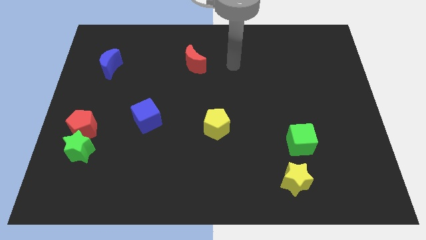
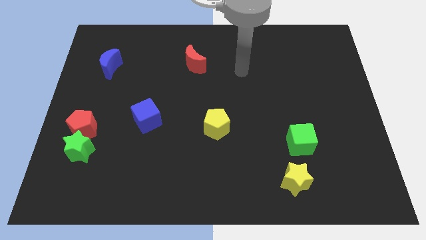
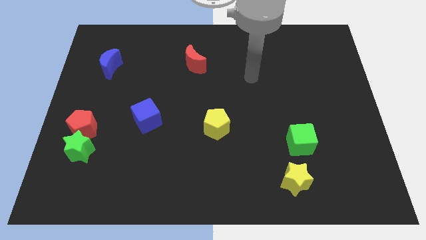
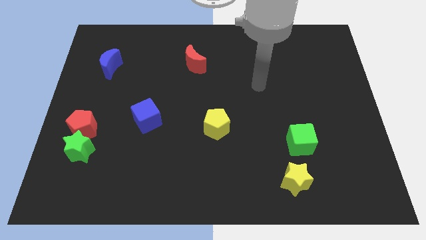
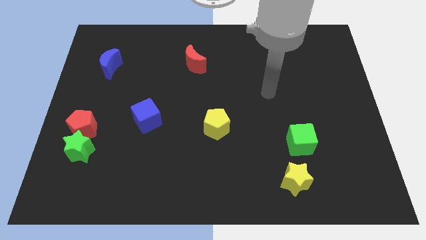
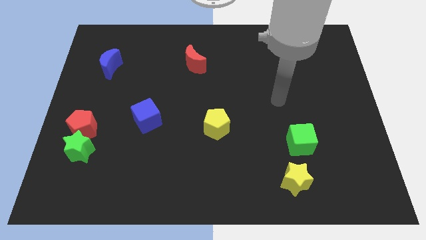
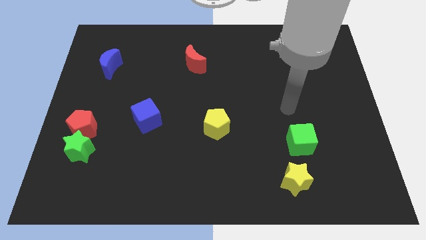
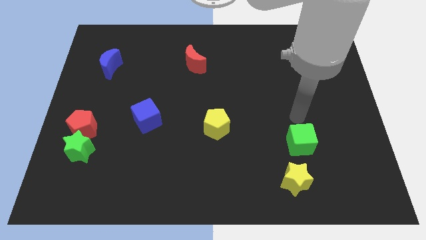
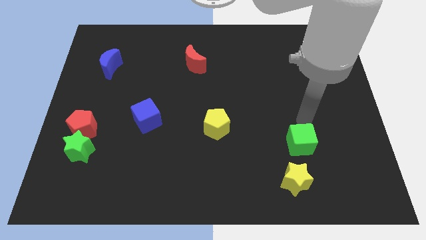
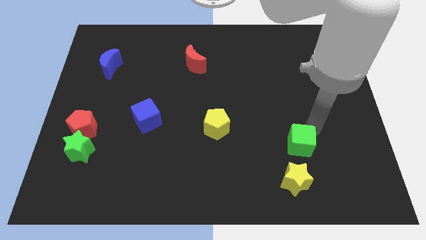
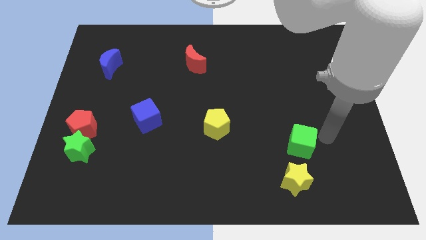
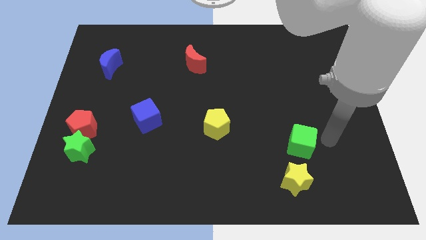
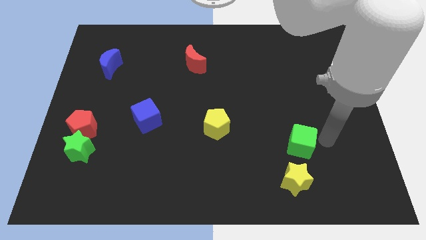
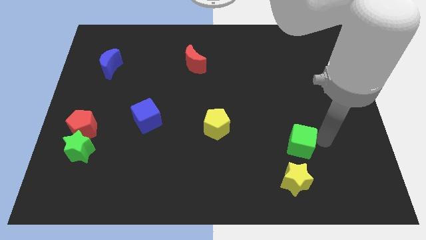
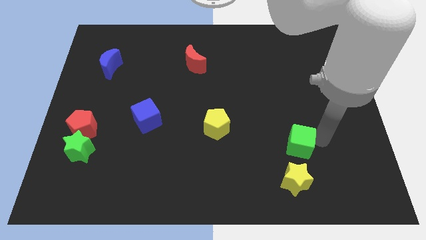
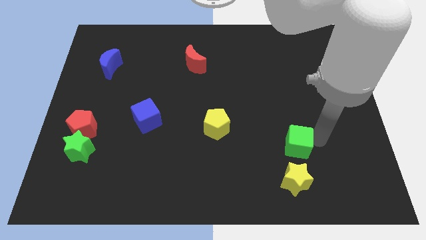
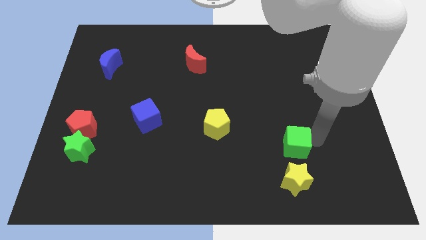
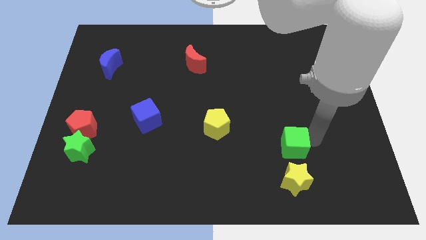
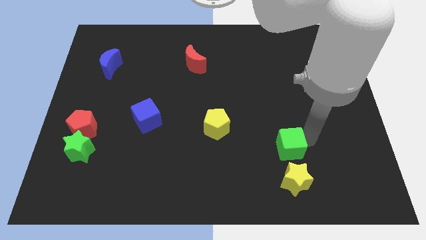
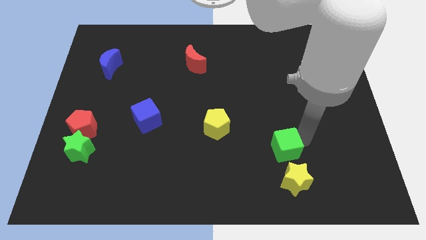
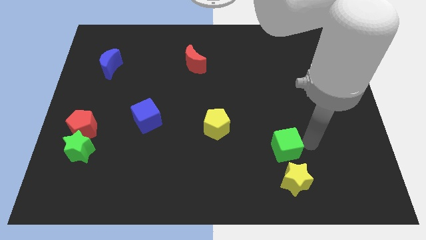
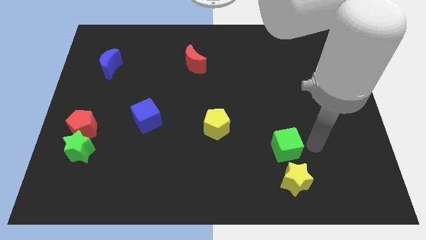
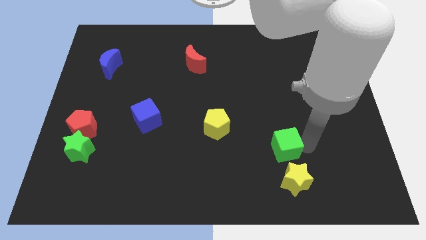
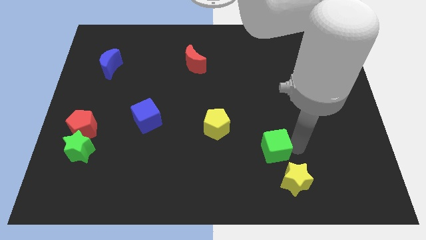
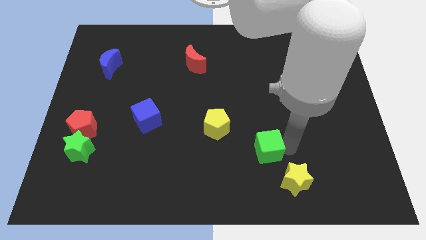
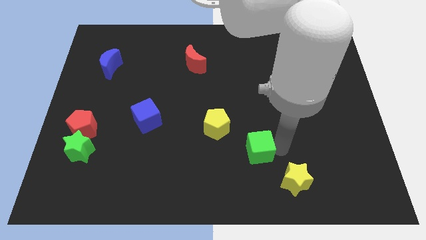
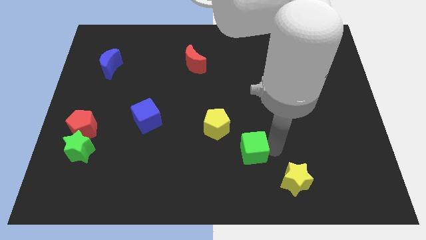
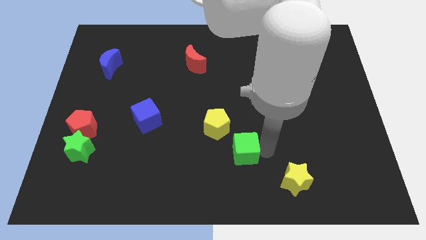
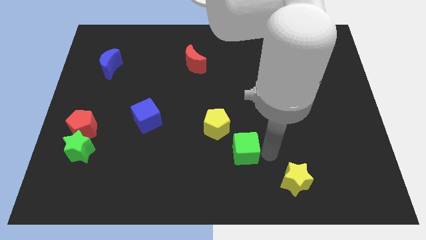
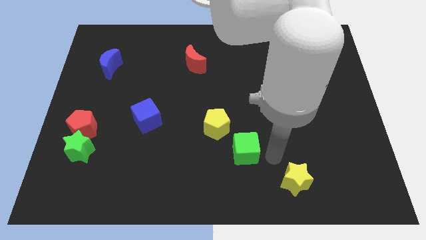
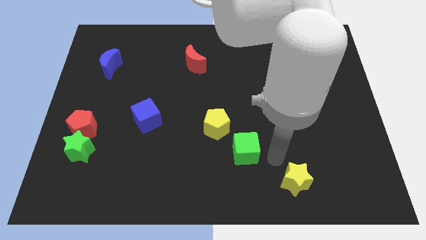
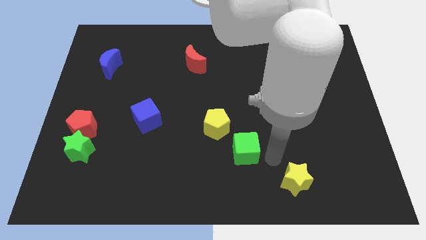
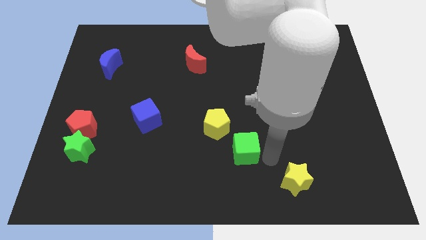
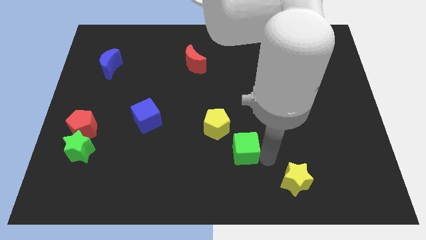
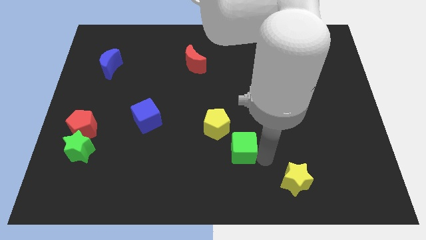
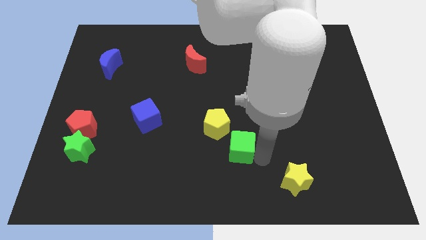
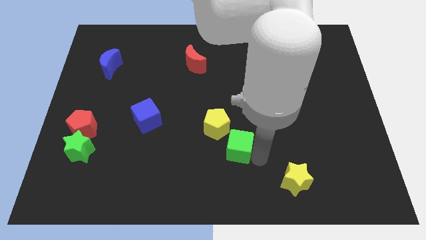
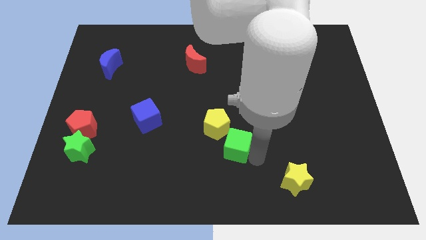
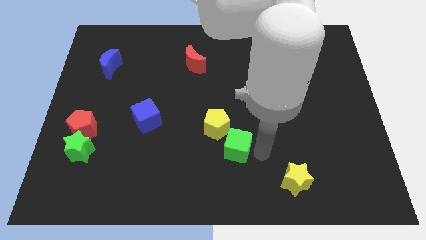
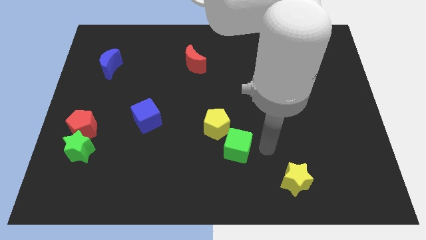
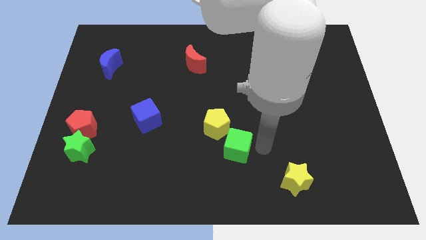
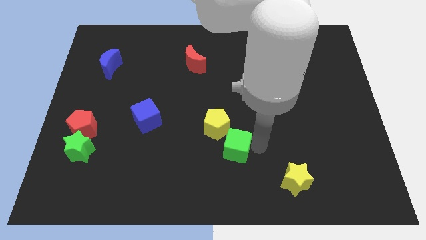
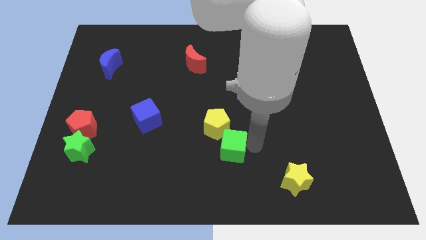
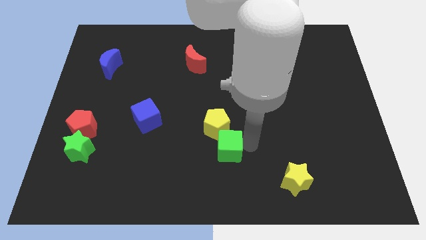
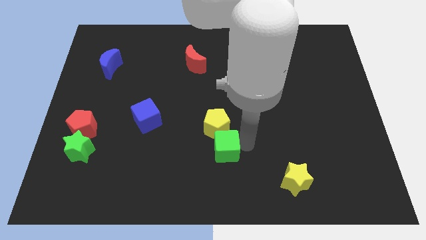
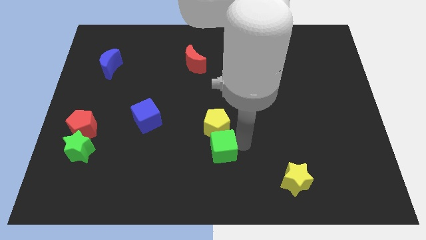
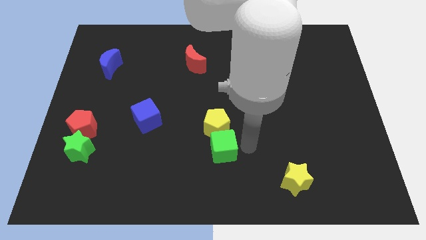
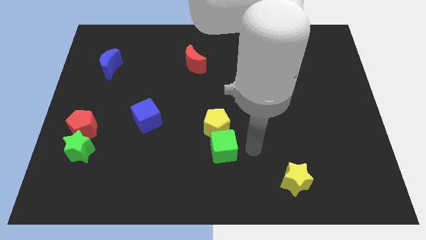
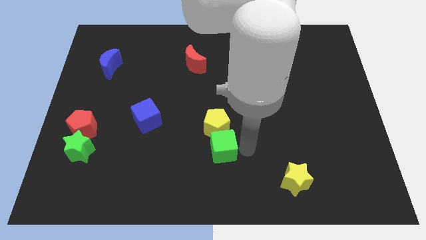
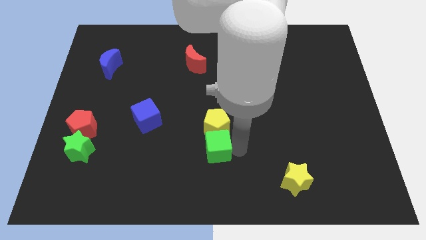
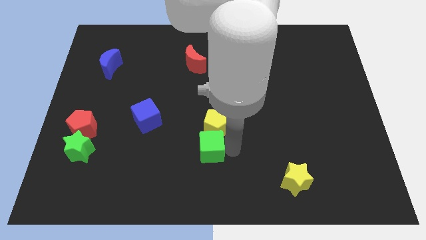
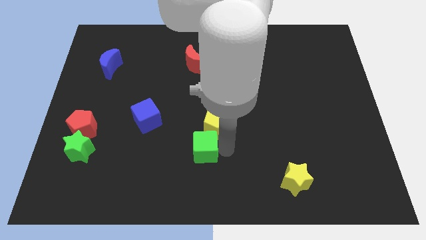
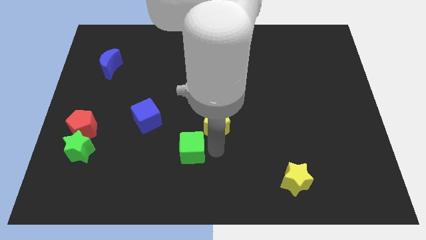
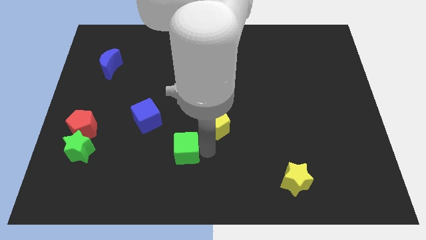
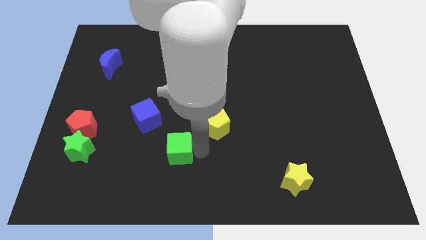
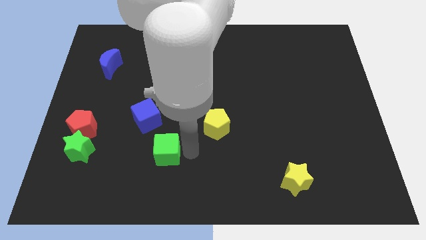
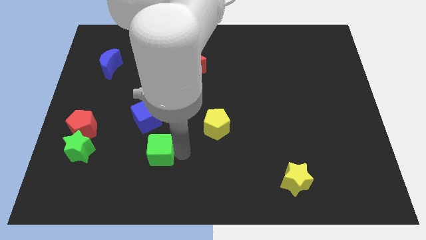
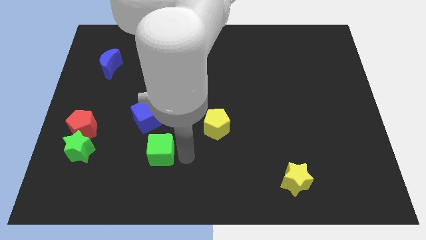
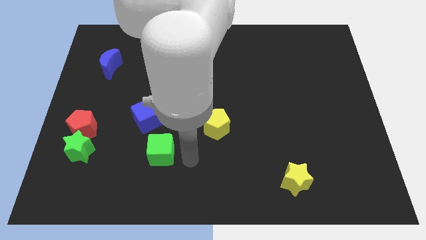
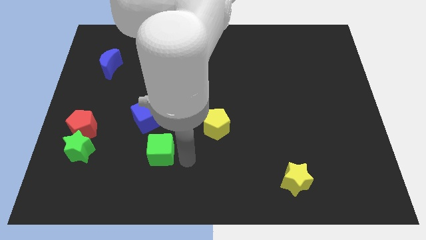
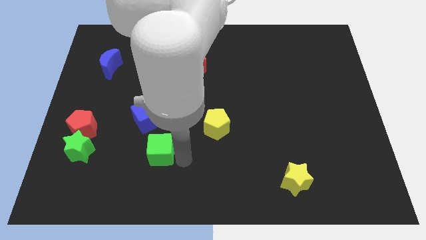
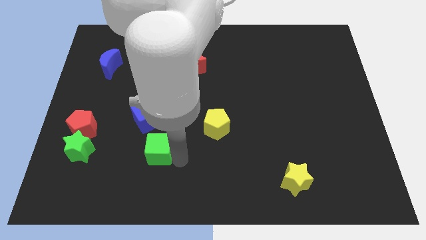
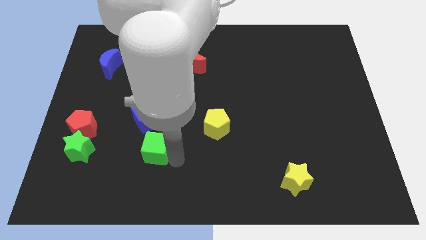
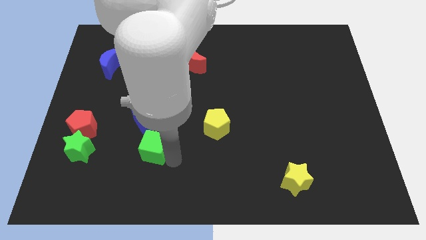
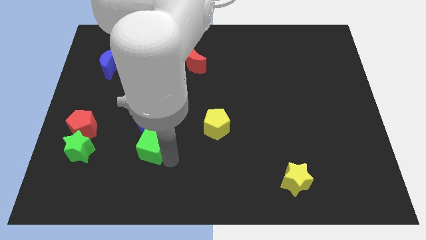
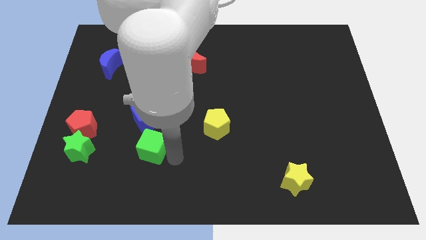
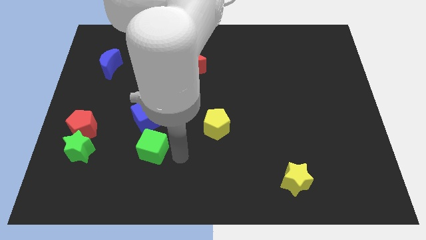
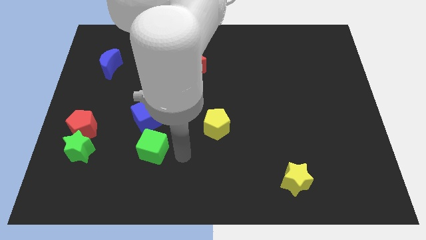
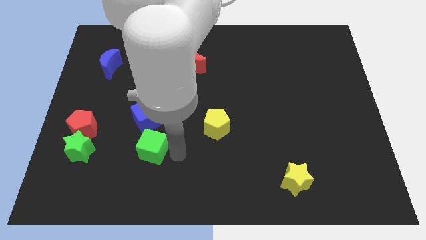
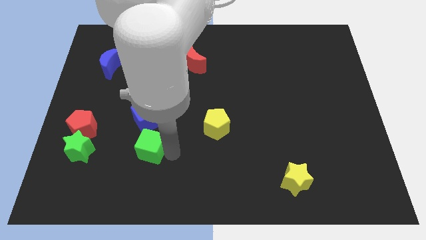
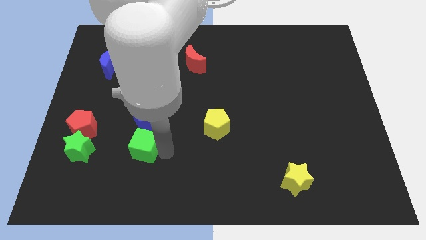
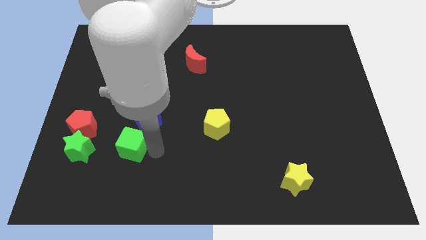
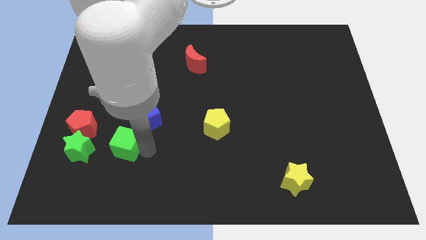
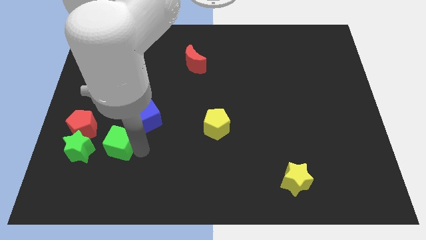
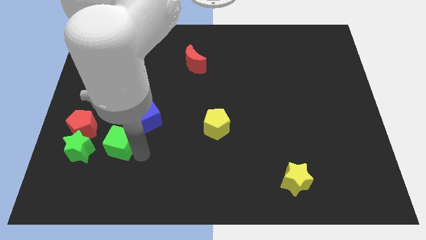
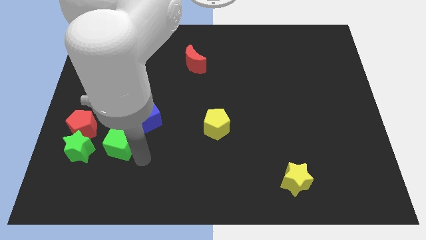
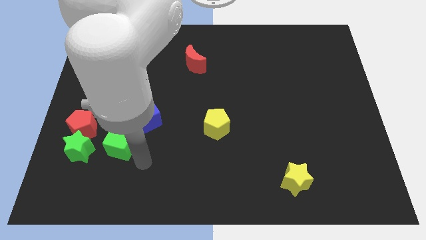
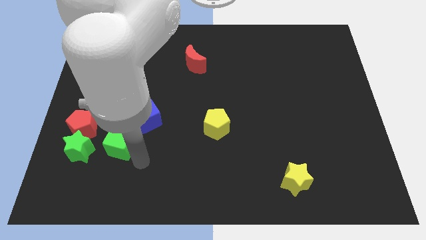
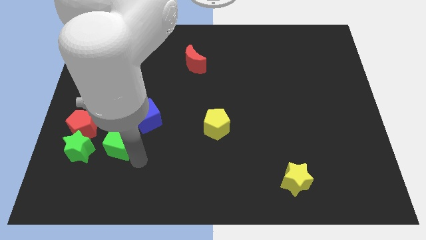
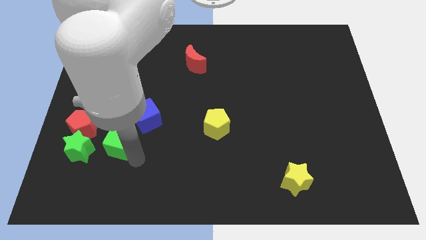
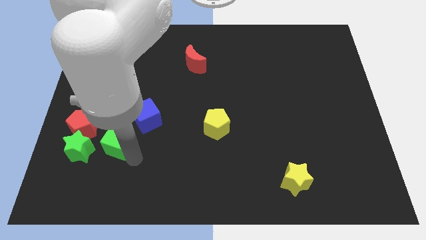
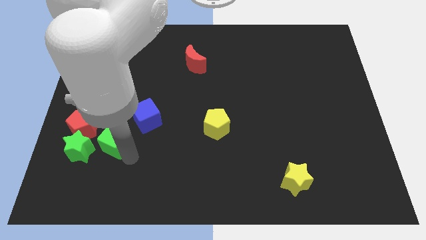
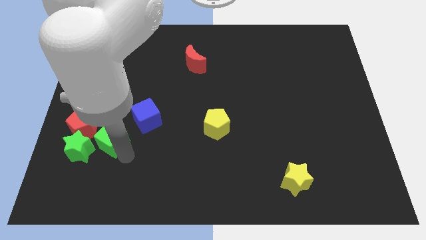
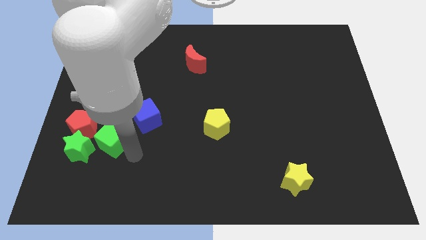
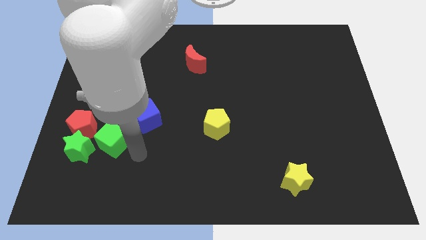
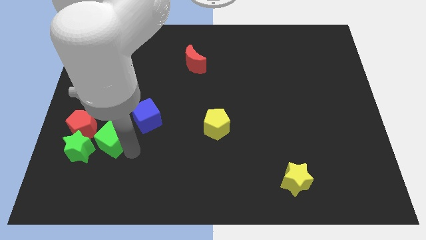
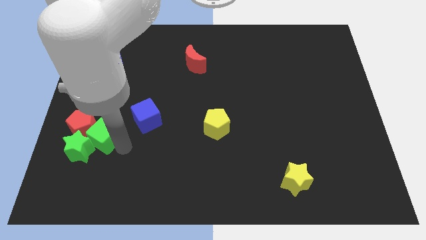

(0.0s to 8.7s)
move the green cube next to the red pentagon
